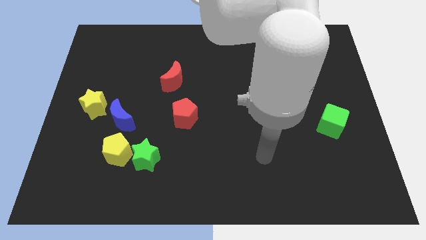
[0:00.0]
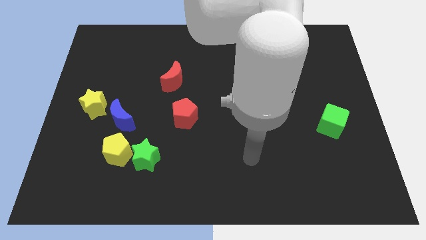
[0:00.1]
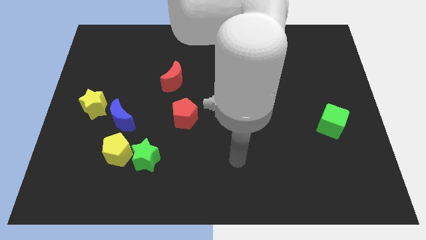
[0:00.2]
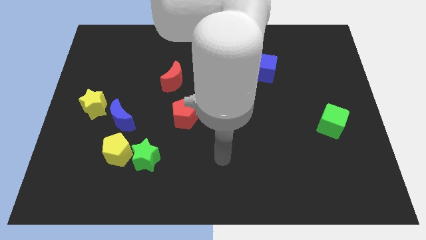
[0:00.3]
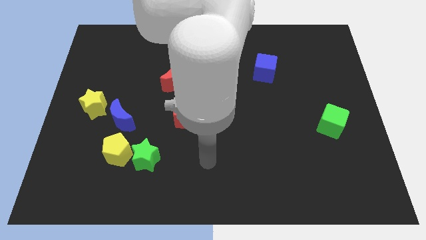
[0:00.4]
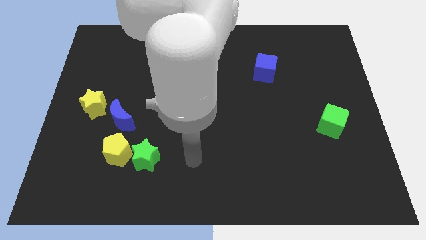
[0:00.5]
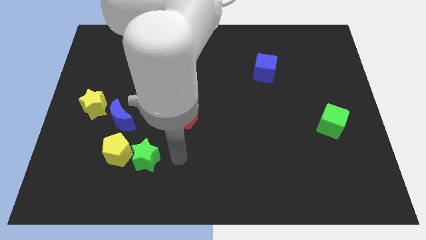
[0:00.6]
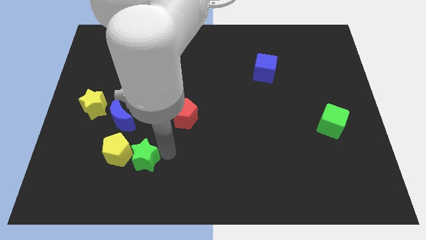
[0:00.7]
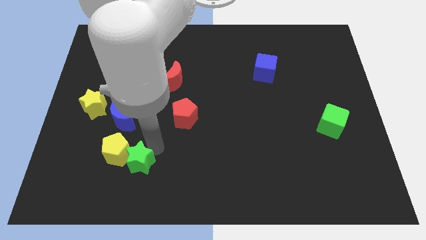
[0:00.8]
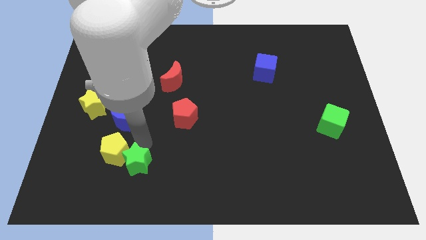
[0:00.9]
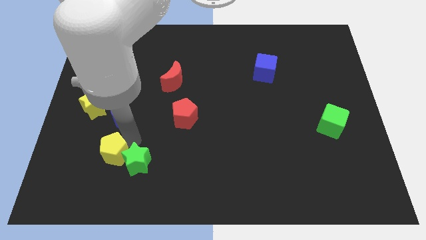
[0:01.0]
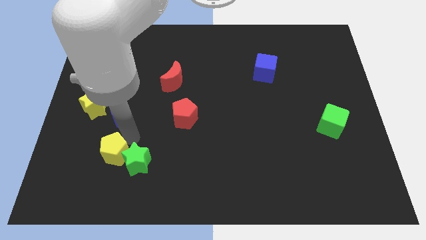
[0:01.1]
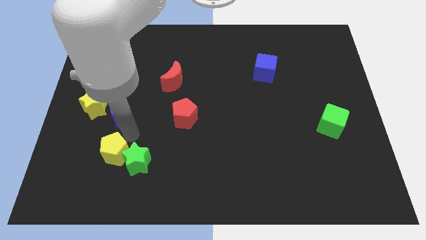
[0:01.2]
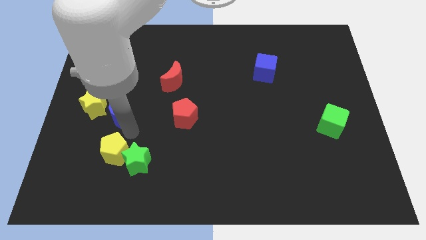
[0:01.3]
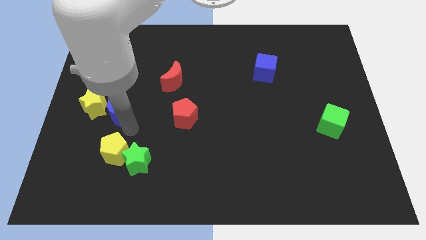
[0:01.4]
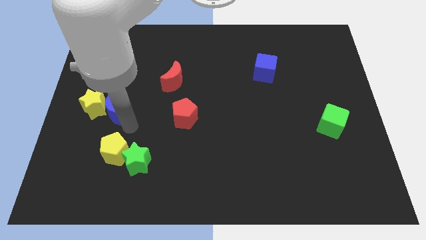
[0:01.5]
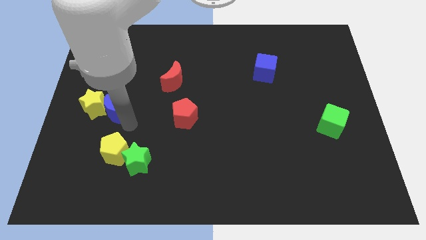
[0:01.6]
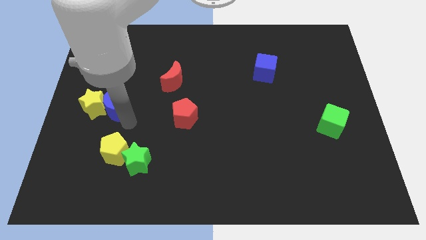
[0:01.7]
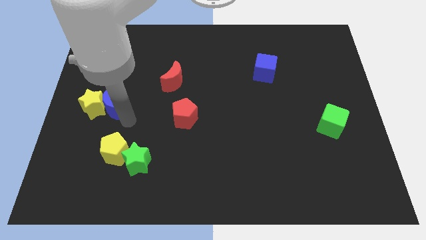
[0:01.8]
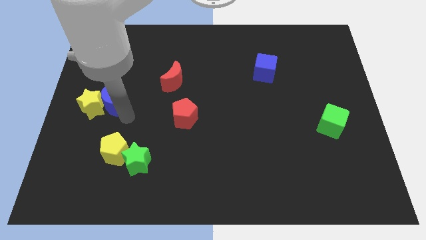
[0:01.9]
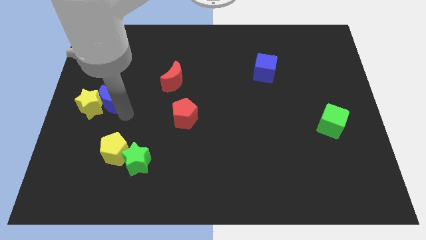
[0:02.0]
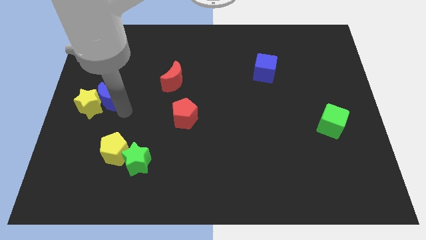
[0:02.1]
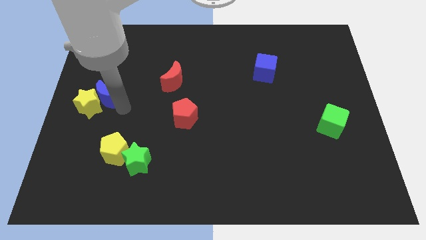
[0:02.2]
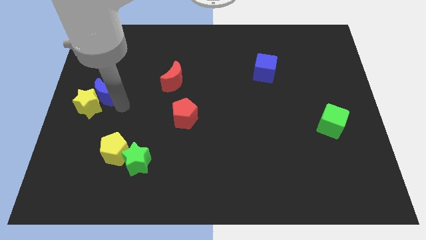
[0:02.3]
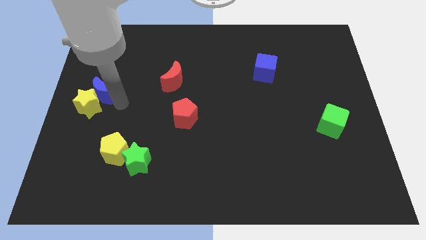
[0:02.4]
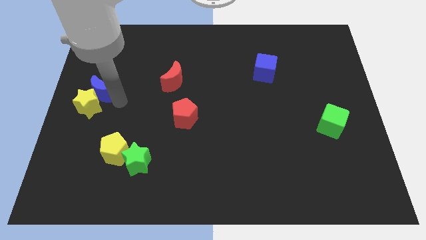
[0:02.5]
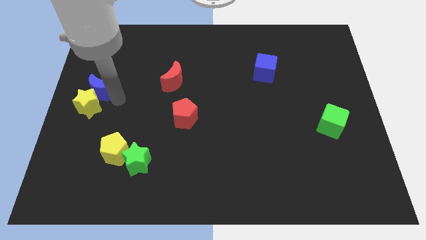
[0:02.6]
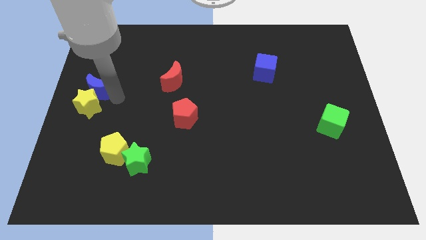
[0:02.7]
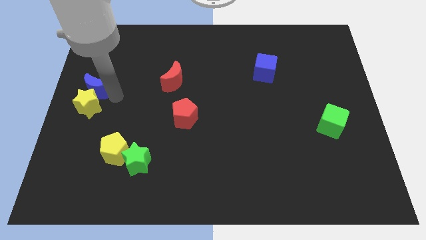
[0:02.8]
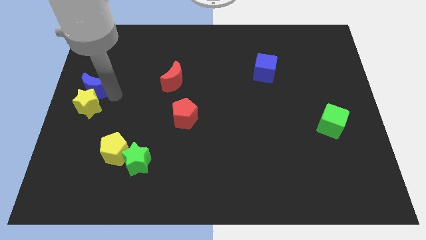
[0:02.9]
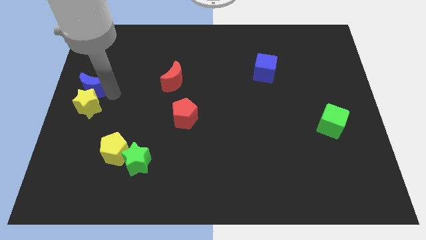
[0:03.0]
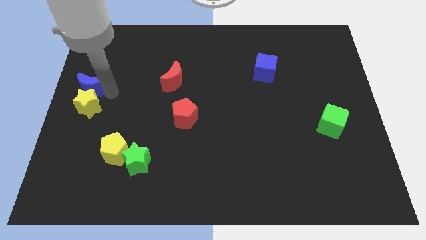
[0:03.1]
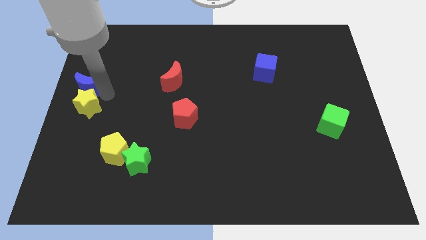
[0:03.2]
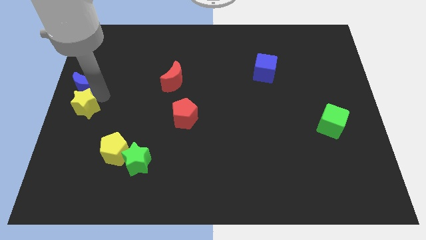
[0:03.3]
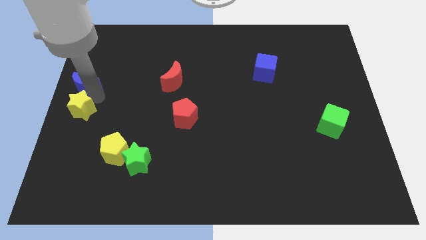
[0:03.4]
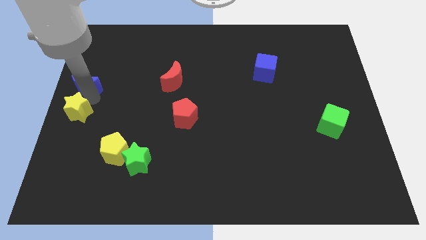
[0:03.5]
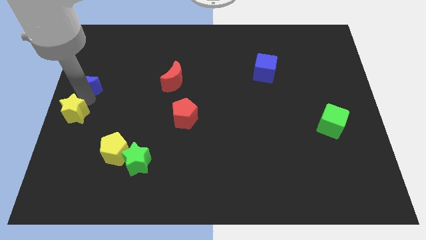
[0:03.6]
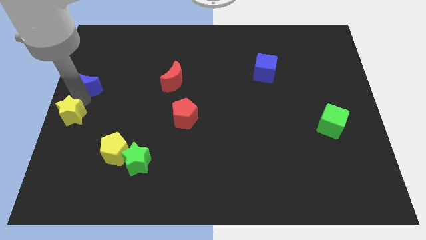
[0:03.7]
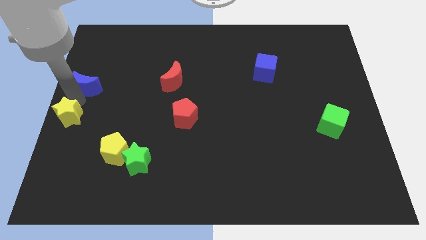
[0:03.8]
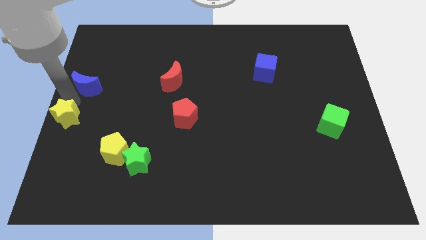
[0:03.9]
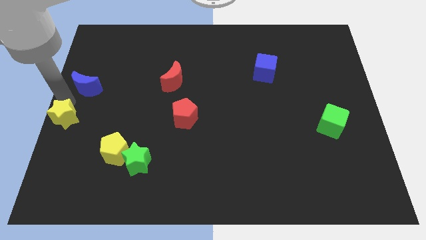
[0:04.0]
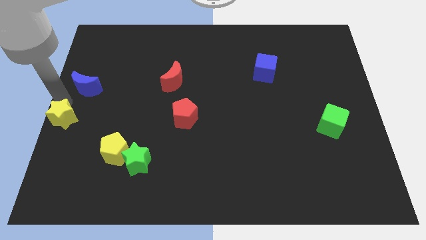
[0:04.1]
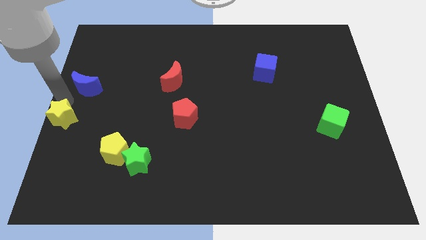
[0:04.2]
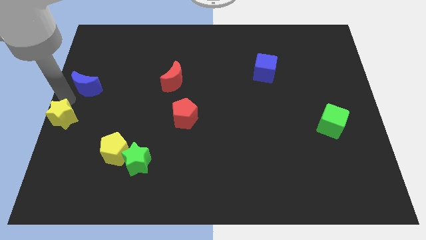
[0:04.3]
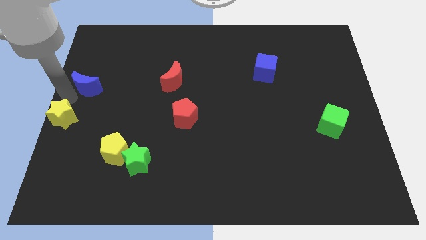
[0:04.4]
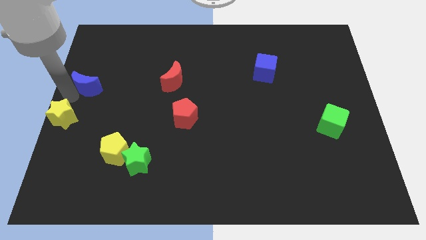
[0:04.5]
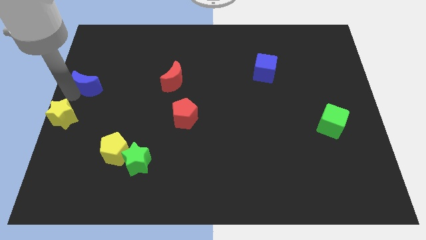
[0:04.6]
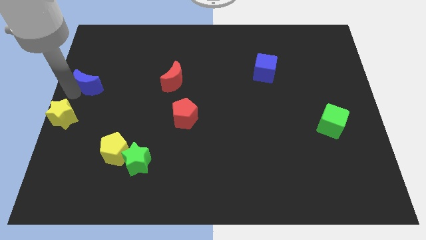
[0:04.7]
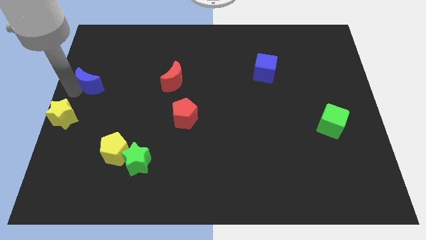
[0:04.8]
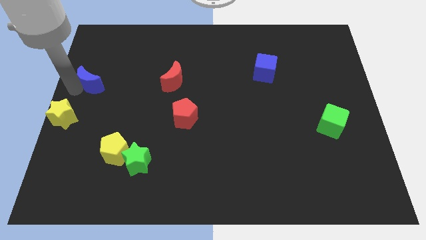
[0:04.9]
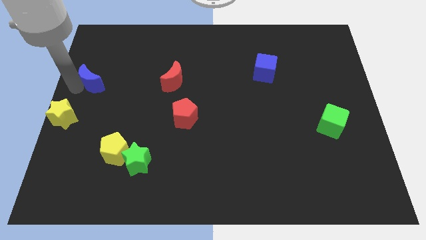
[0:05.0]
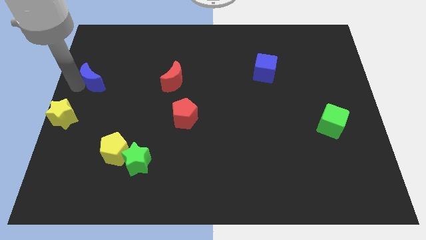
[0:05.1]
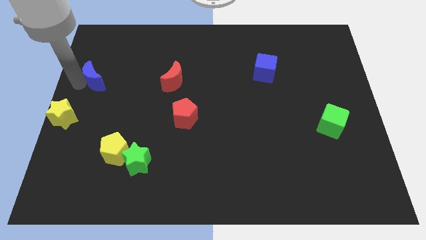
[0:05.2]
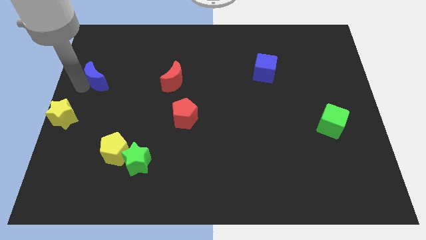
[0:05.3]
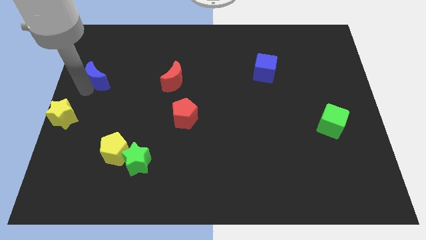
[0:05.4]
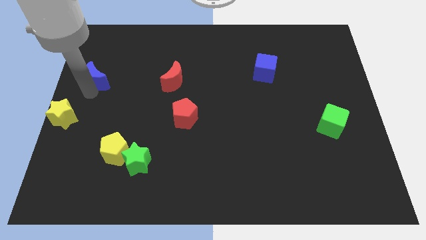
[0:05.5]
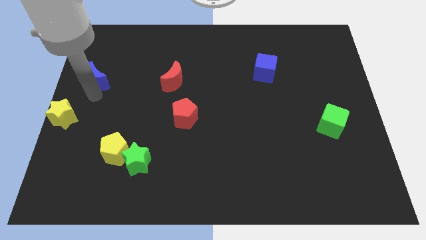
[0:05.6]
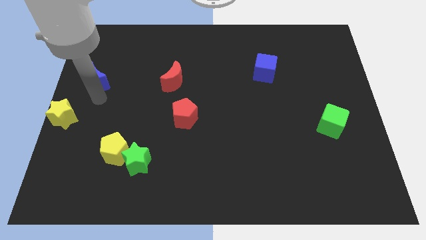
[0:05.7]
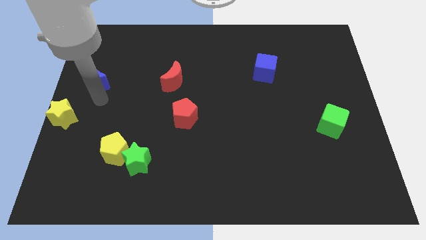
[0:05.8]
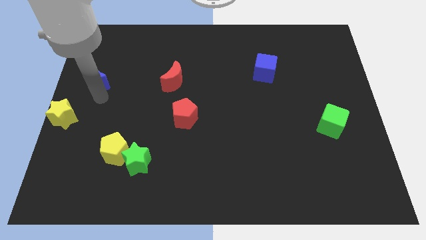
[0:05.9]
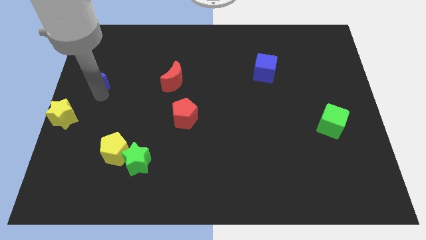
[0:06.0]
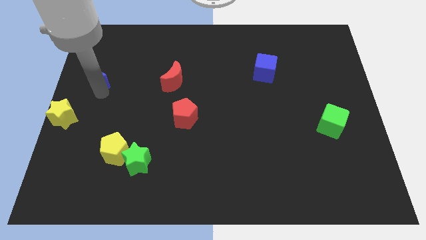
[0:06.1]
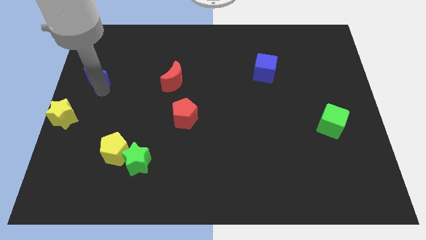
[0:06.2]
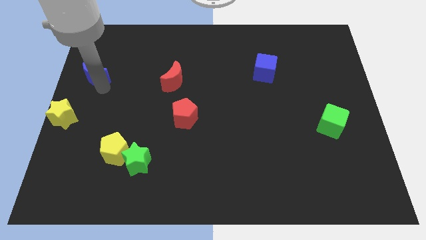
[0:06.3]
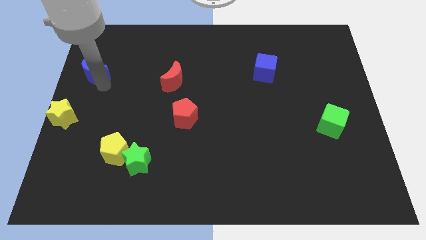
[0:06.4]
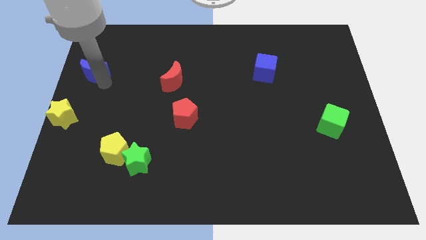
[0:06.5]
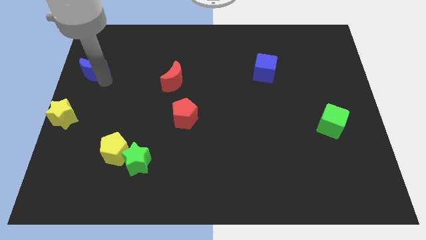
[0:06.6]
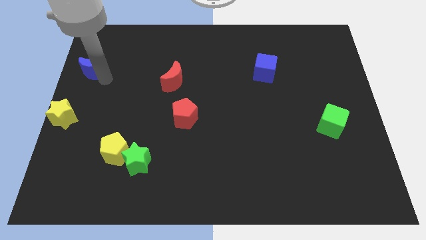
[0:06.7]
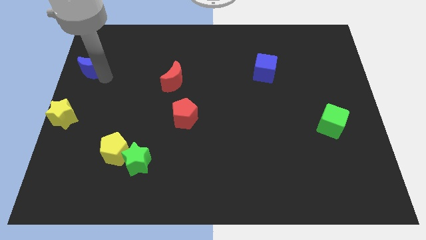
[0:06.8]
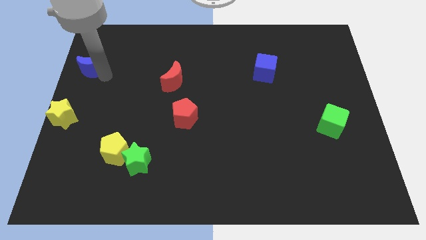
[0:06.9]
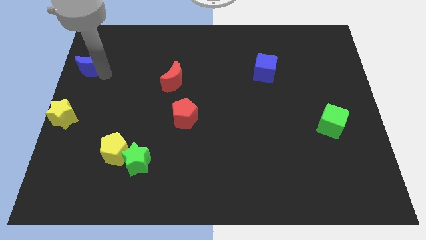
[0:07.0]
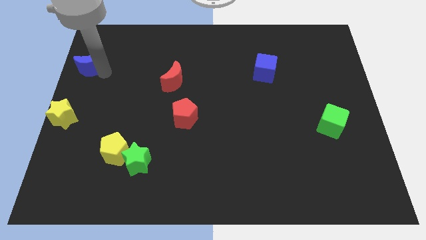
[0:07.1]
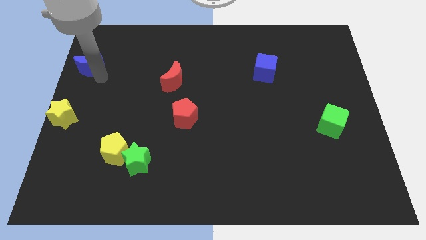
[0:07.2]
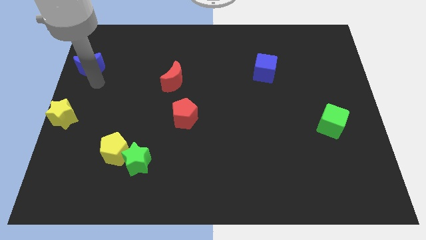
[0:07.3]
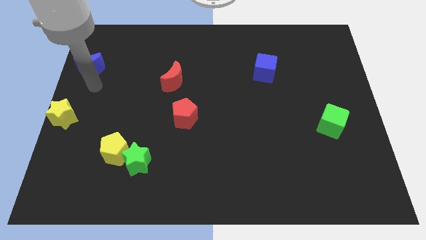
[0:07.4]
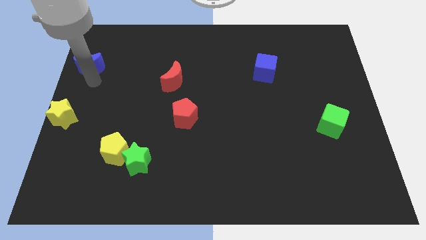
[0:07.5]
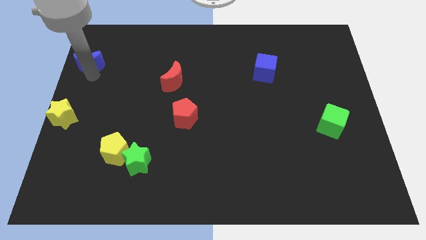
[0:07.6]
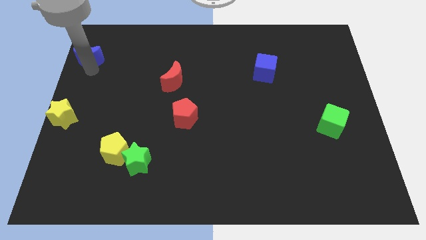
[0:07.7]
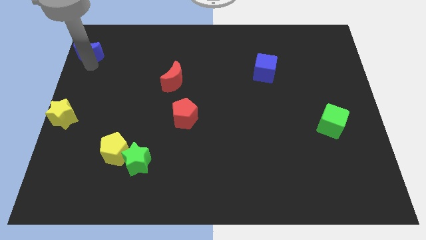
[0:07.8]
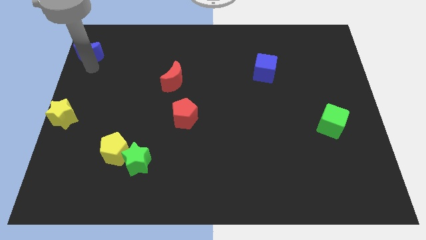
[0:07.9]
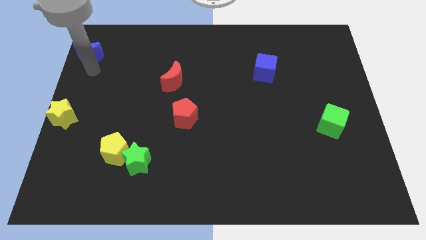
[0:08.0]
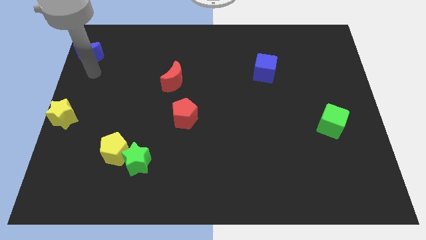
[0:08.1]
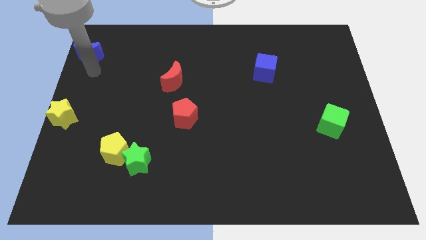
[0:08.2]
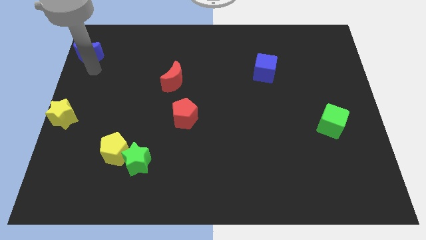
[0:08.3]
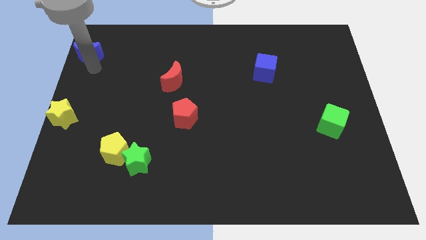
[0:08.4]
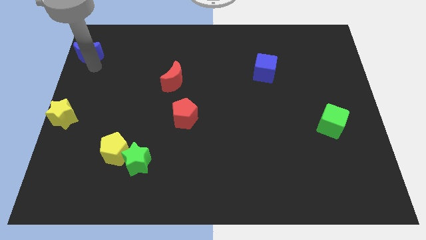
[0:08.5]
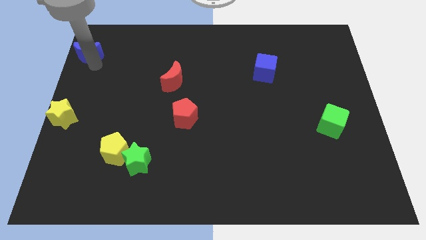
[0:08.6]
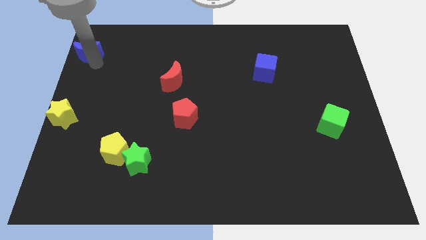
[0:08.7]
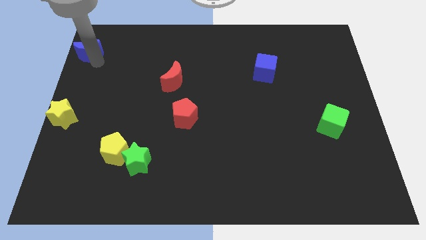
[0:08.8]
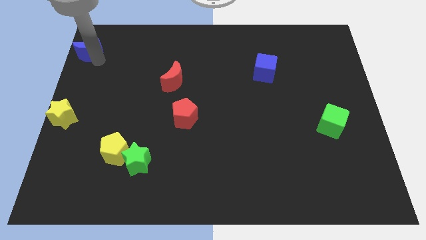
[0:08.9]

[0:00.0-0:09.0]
put the blue moon to the top left
